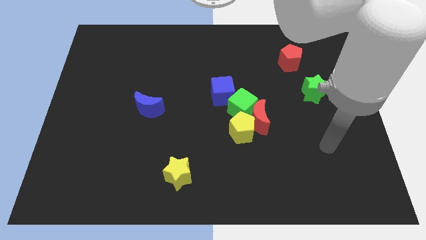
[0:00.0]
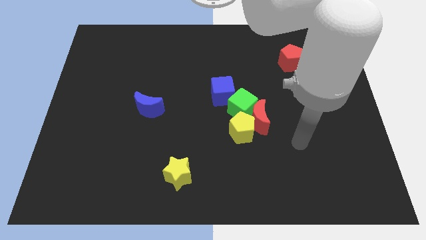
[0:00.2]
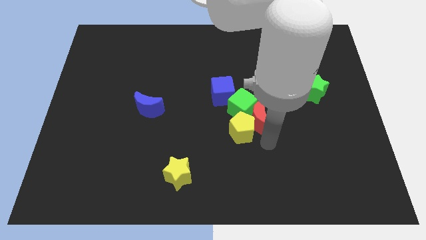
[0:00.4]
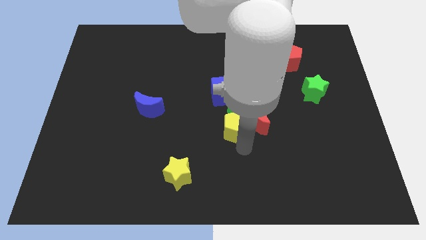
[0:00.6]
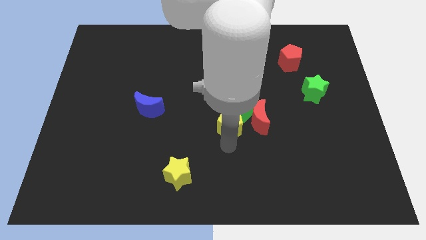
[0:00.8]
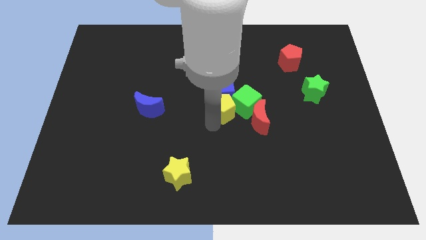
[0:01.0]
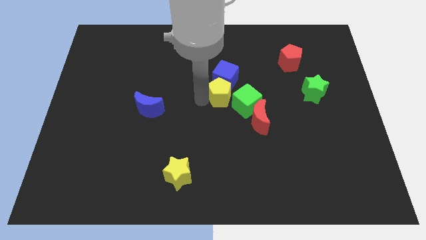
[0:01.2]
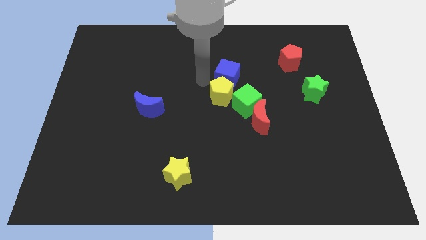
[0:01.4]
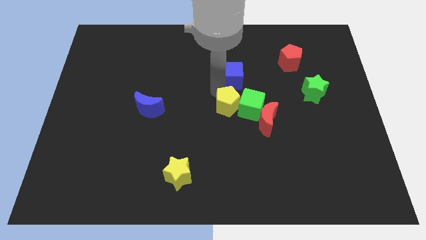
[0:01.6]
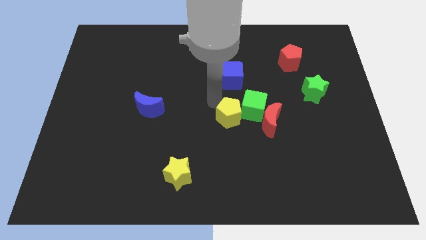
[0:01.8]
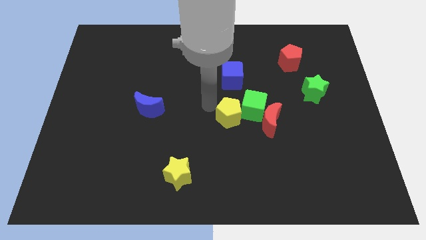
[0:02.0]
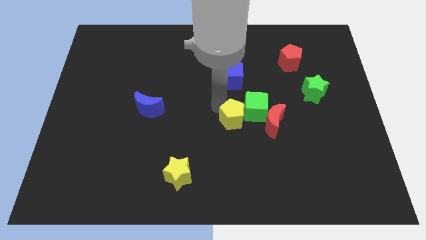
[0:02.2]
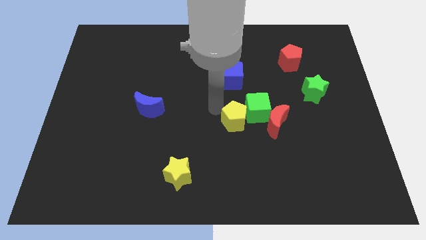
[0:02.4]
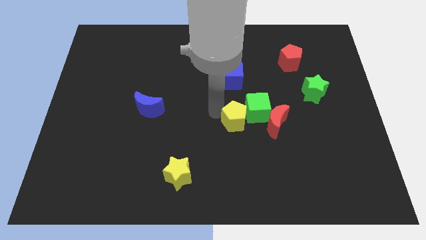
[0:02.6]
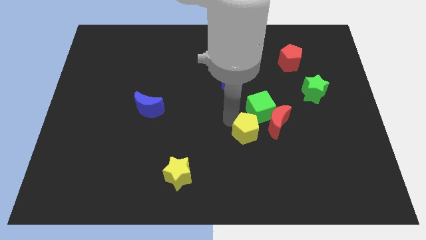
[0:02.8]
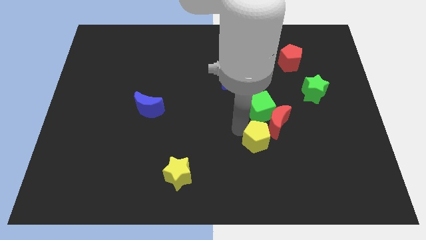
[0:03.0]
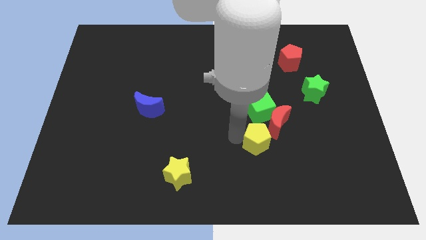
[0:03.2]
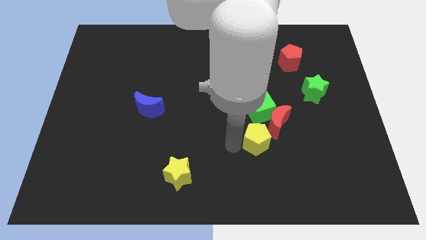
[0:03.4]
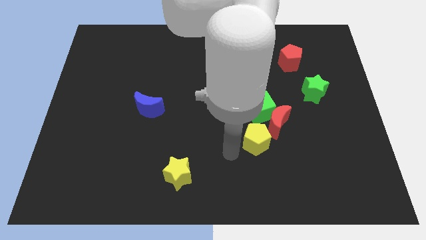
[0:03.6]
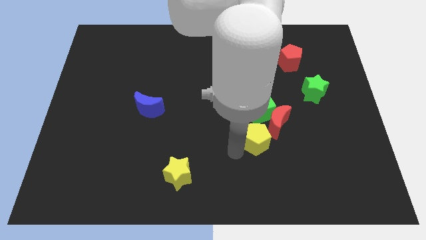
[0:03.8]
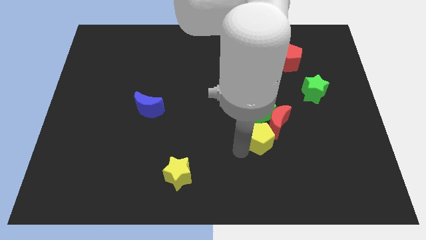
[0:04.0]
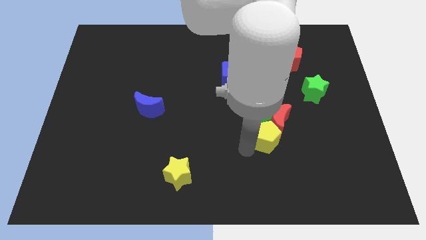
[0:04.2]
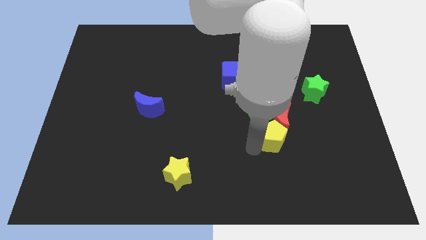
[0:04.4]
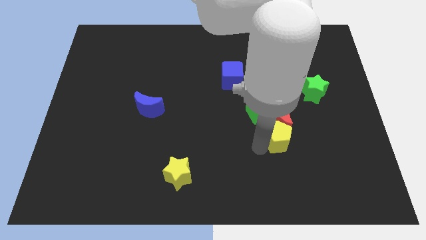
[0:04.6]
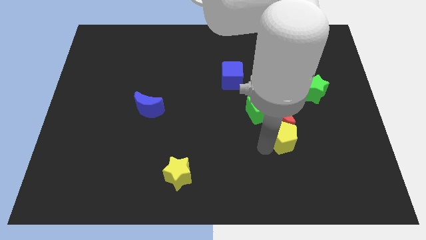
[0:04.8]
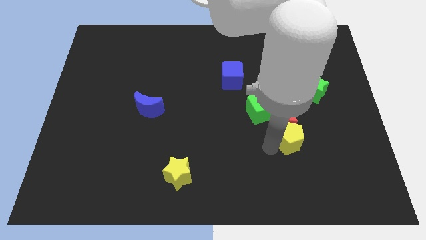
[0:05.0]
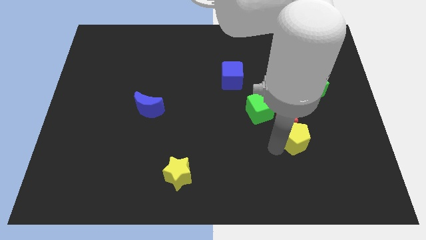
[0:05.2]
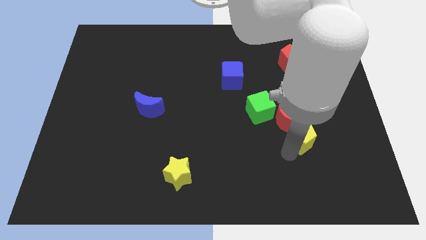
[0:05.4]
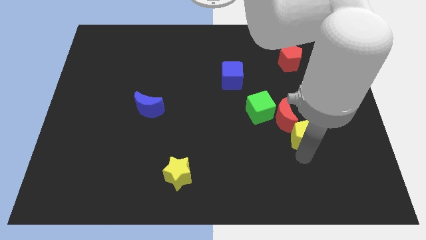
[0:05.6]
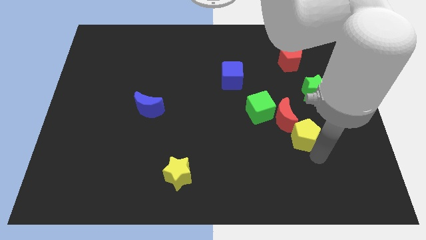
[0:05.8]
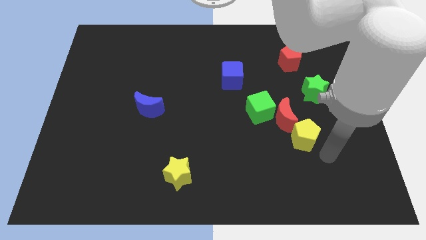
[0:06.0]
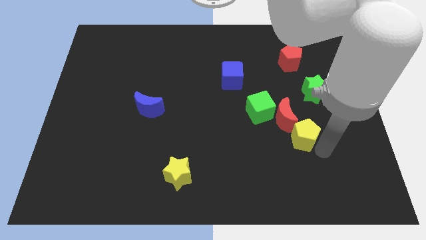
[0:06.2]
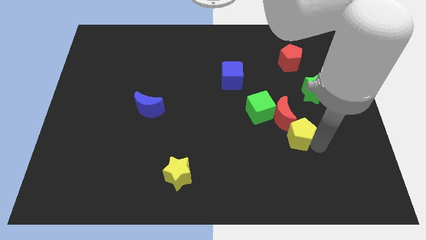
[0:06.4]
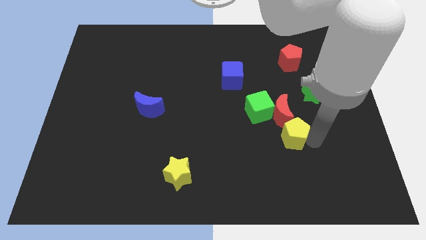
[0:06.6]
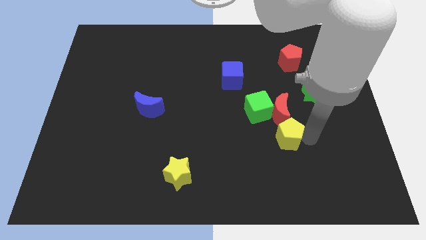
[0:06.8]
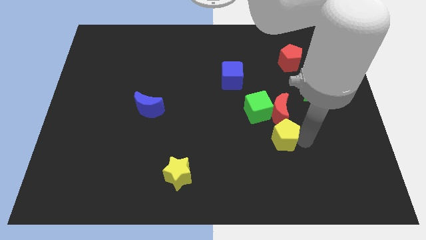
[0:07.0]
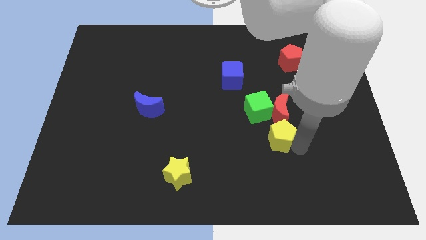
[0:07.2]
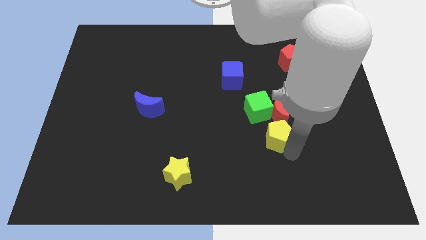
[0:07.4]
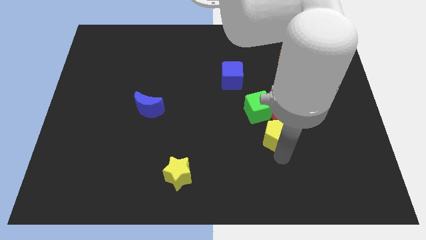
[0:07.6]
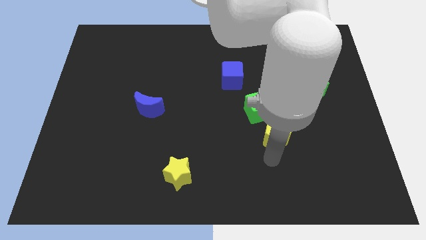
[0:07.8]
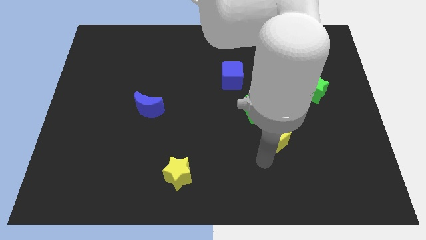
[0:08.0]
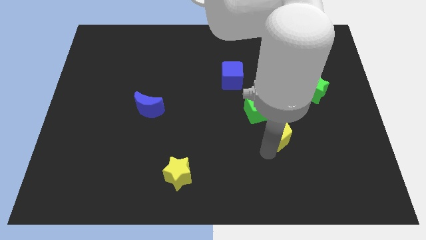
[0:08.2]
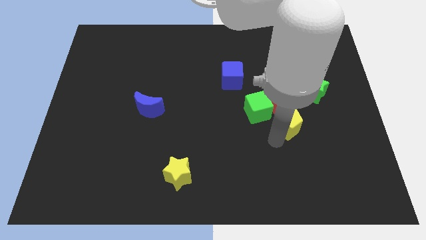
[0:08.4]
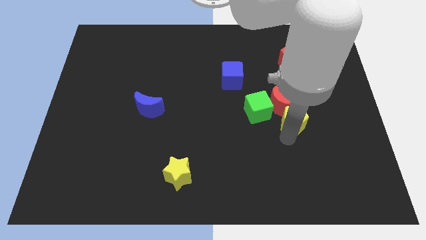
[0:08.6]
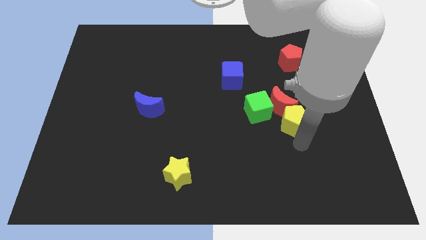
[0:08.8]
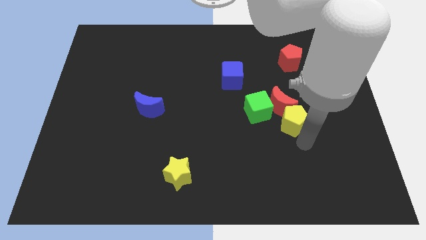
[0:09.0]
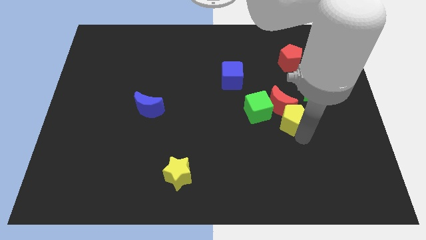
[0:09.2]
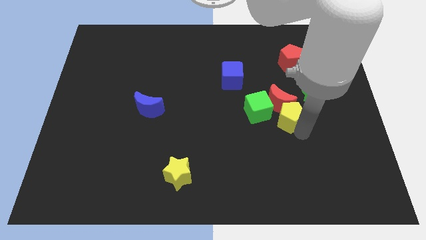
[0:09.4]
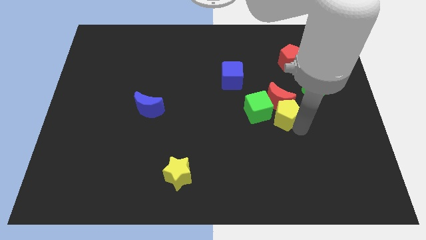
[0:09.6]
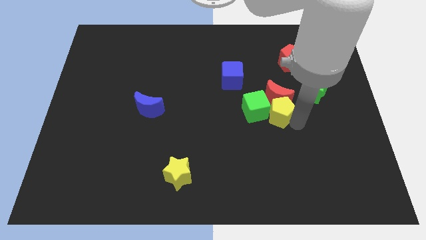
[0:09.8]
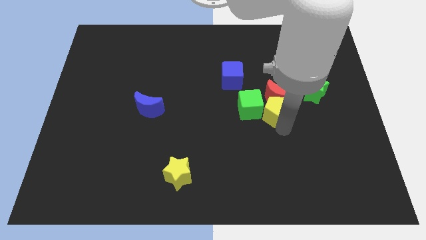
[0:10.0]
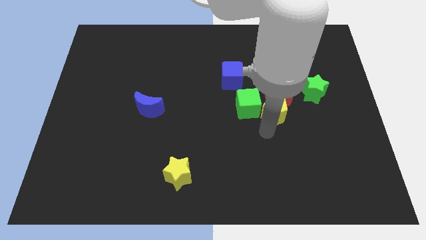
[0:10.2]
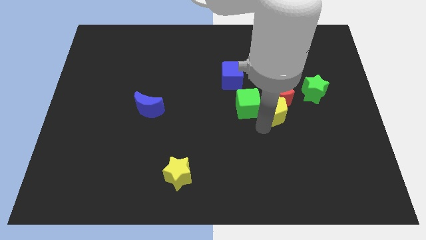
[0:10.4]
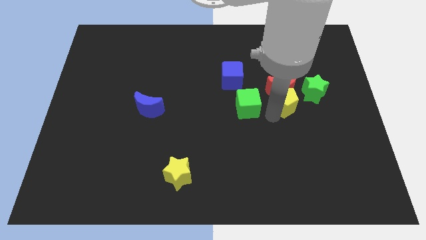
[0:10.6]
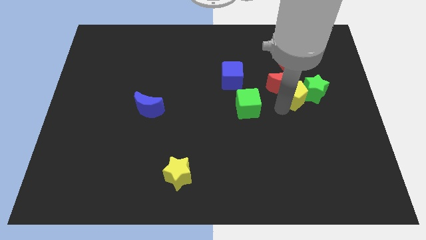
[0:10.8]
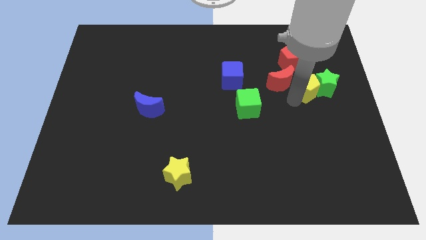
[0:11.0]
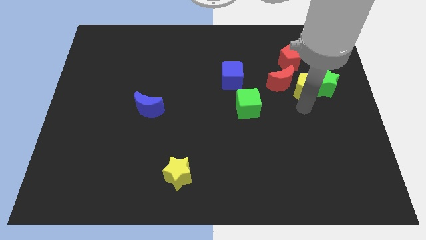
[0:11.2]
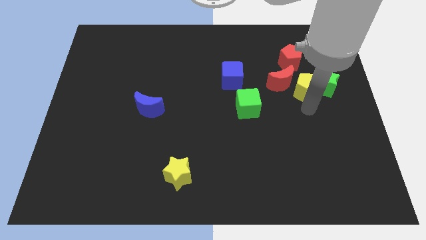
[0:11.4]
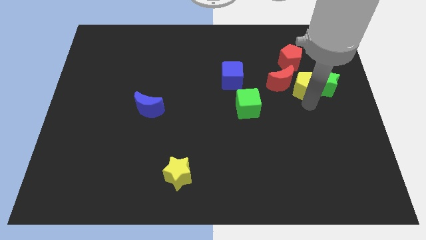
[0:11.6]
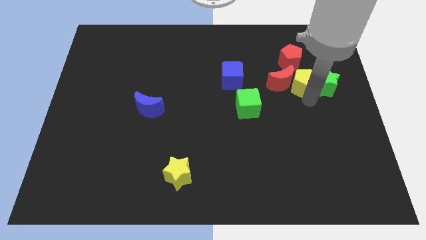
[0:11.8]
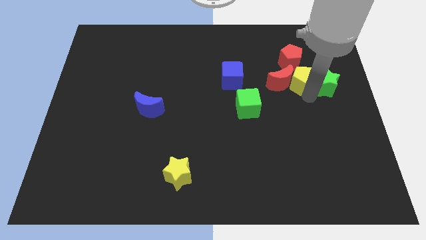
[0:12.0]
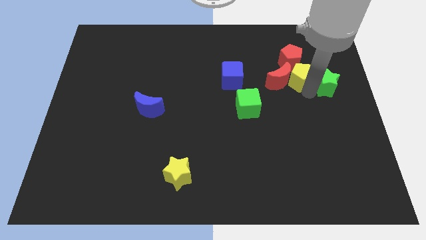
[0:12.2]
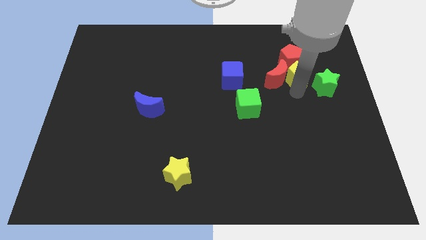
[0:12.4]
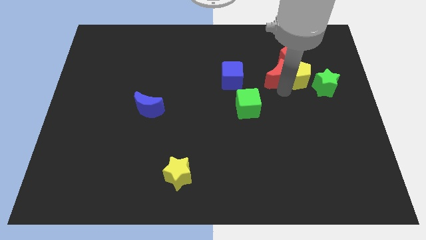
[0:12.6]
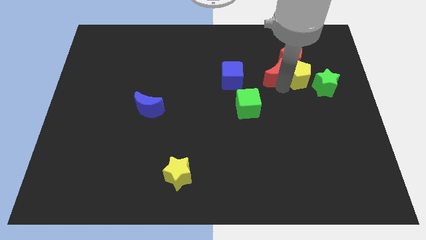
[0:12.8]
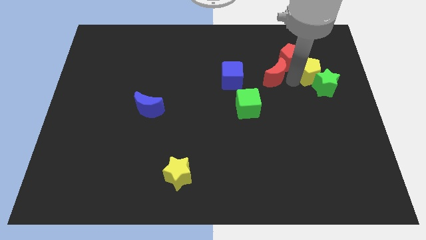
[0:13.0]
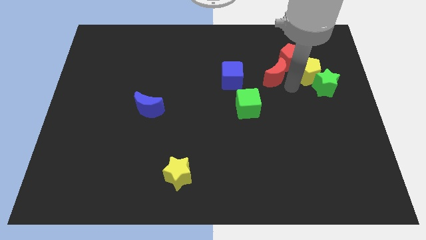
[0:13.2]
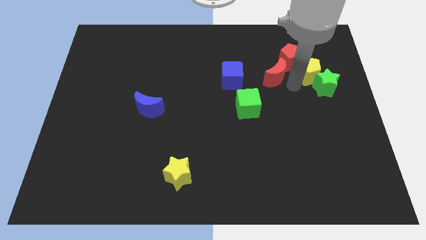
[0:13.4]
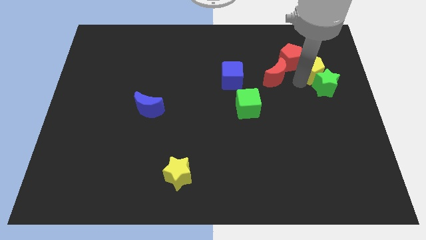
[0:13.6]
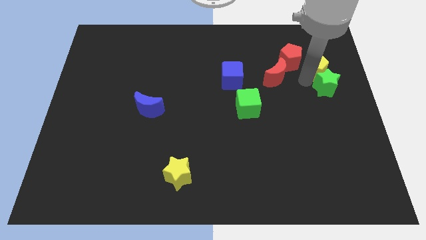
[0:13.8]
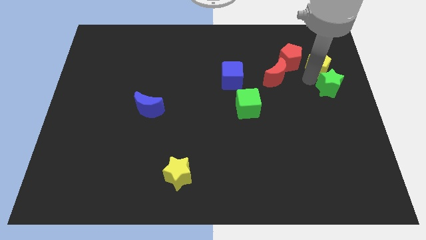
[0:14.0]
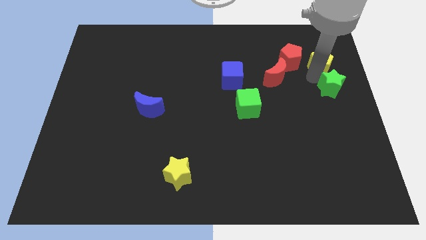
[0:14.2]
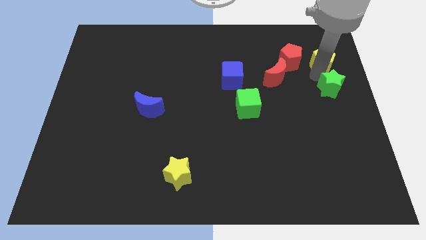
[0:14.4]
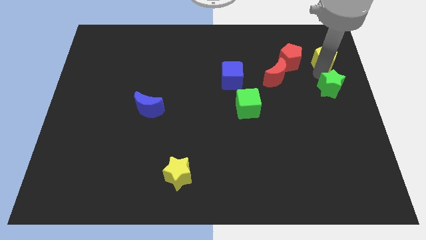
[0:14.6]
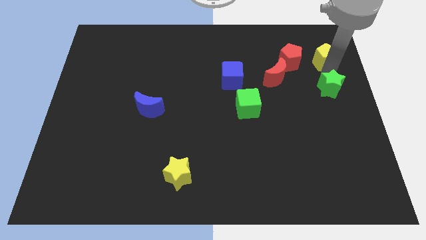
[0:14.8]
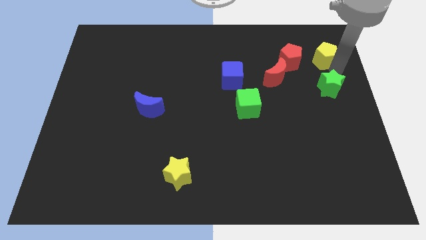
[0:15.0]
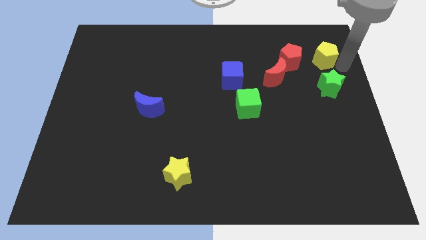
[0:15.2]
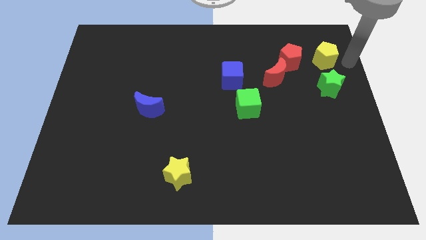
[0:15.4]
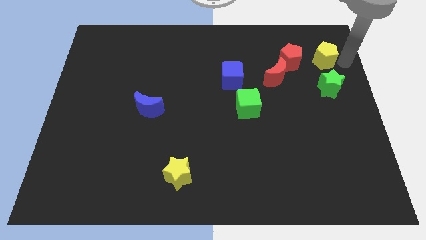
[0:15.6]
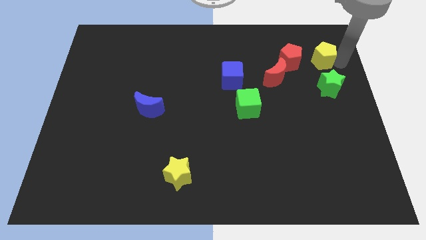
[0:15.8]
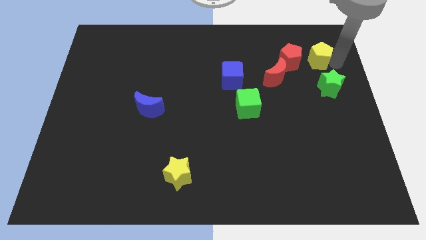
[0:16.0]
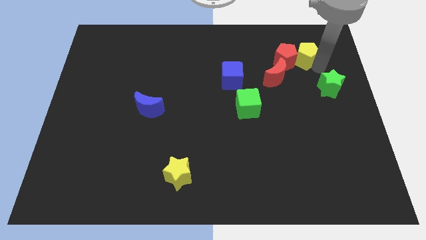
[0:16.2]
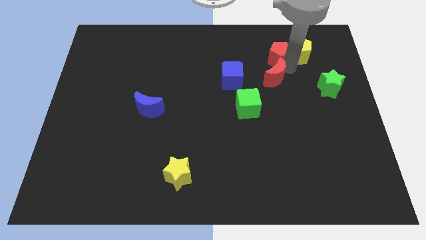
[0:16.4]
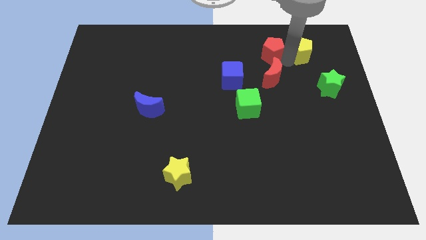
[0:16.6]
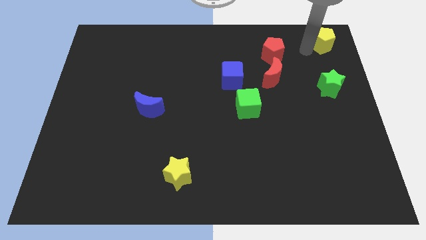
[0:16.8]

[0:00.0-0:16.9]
slide the yellow pentagon to the upper right corner
